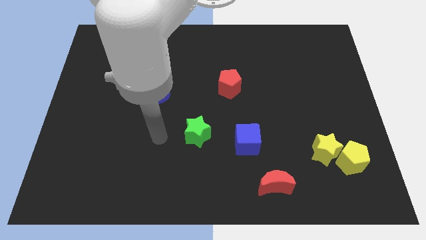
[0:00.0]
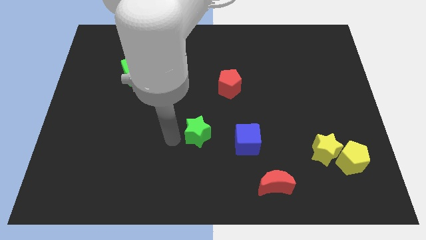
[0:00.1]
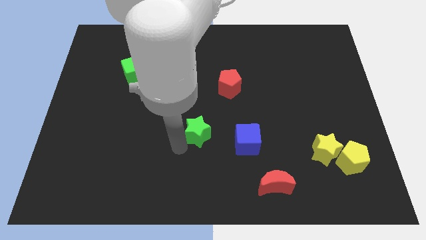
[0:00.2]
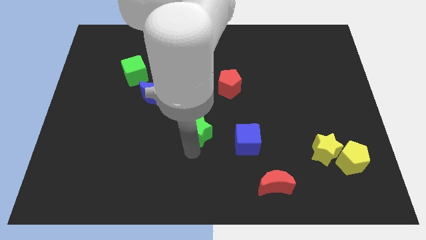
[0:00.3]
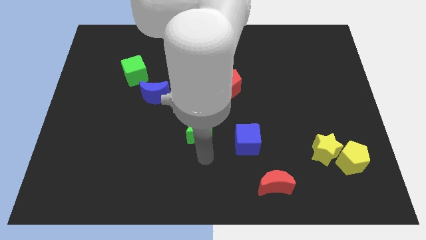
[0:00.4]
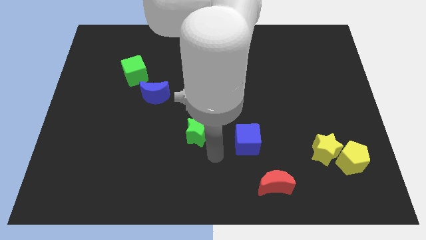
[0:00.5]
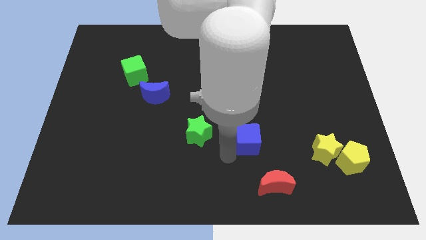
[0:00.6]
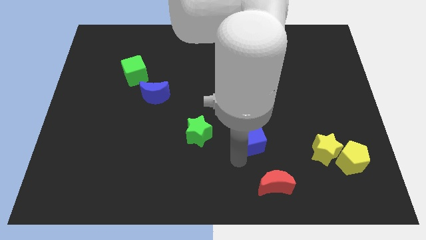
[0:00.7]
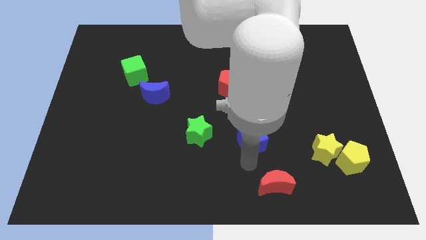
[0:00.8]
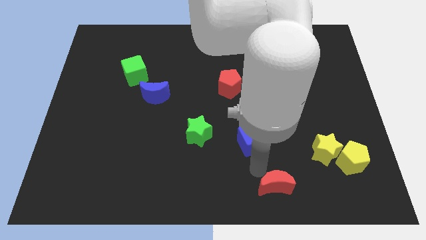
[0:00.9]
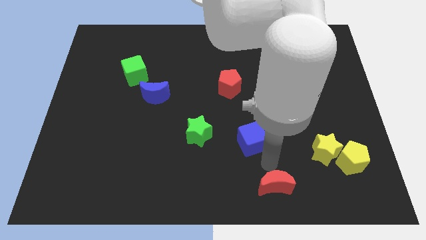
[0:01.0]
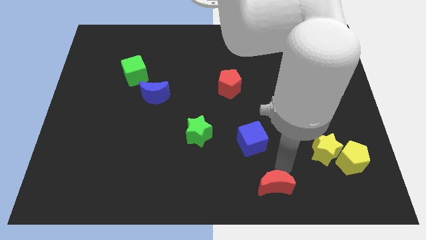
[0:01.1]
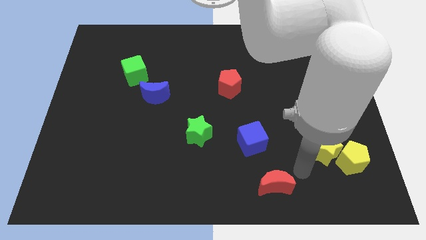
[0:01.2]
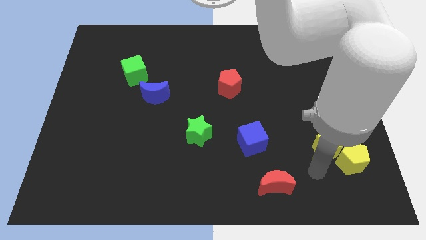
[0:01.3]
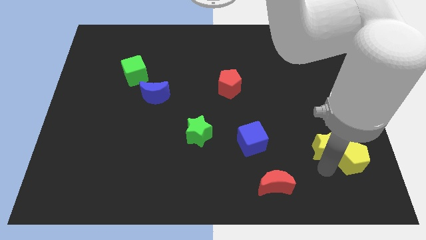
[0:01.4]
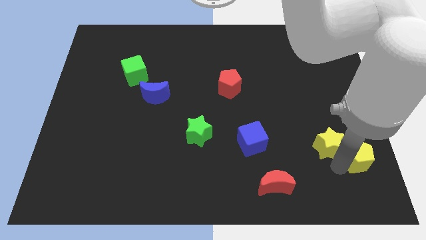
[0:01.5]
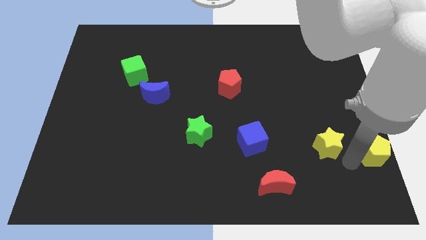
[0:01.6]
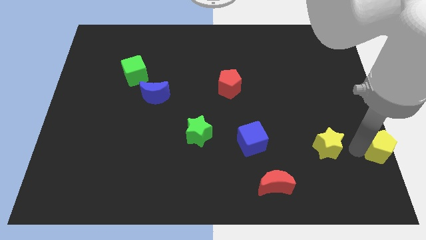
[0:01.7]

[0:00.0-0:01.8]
separate the yellow star from the yellow pentagon

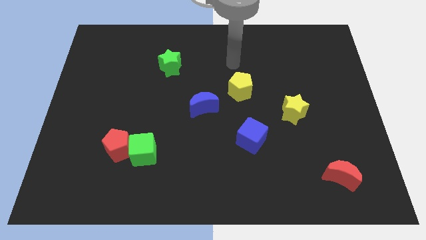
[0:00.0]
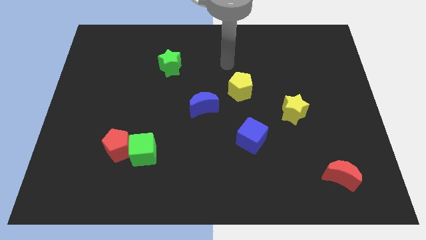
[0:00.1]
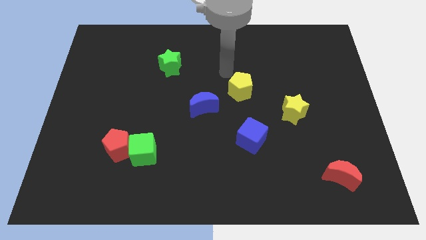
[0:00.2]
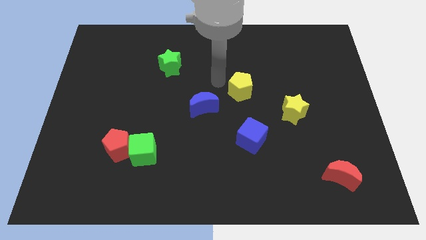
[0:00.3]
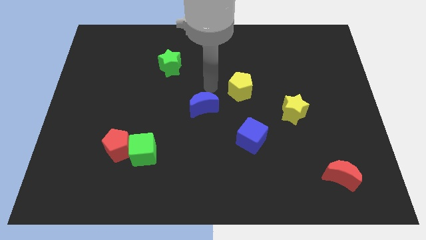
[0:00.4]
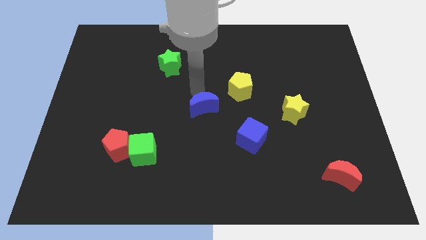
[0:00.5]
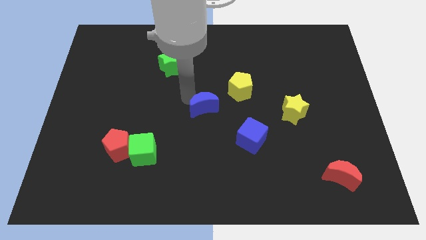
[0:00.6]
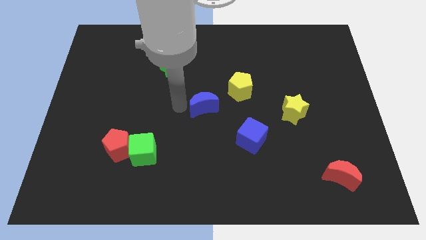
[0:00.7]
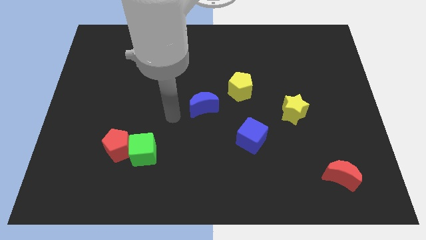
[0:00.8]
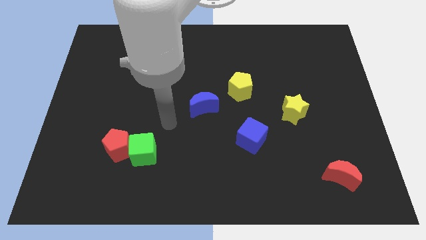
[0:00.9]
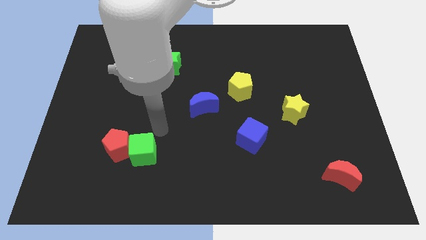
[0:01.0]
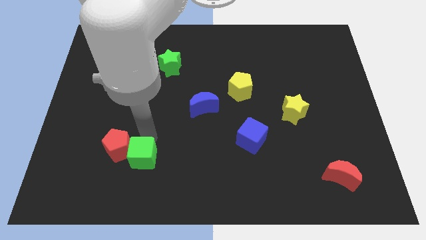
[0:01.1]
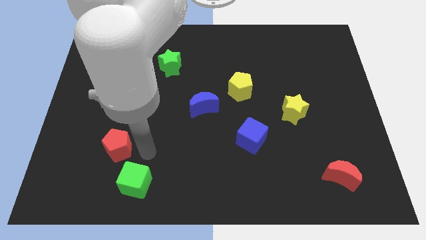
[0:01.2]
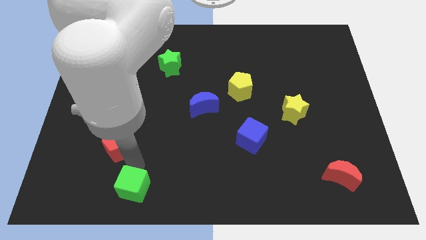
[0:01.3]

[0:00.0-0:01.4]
pull the red pentagon apart from the green cube

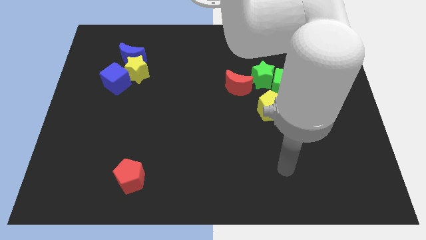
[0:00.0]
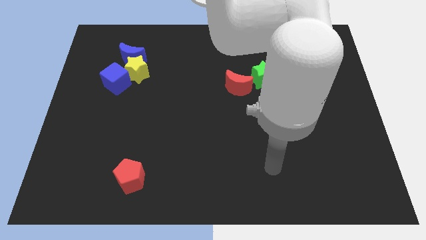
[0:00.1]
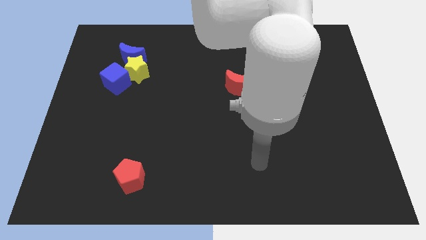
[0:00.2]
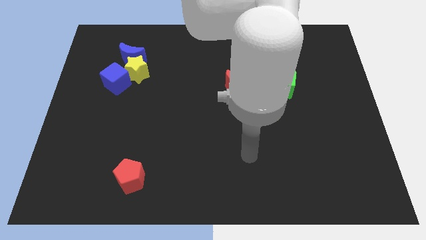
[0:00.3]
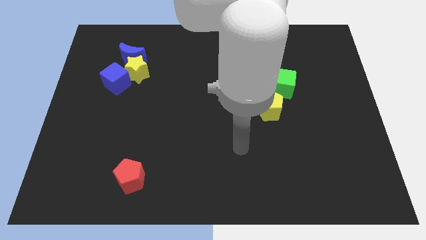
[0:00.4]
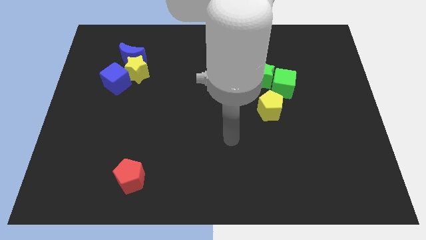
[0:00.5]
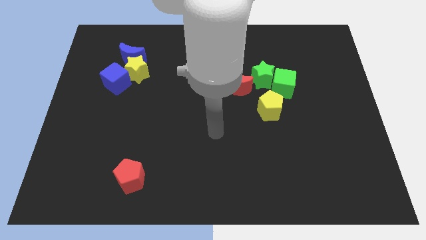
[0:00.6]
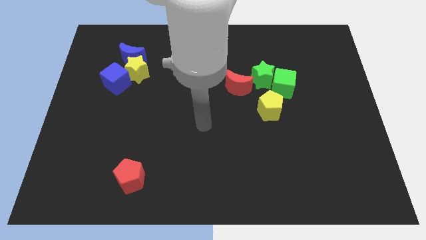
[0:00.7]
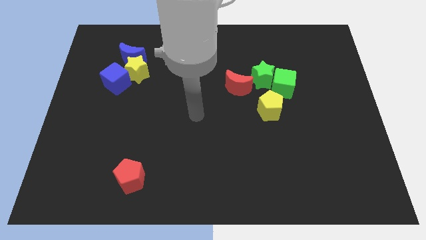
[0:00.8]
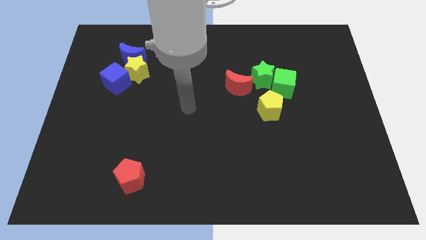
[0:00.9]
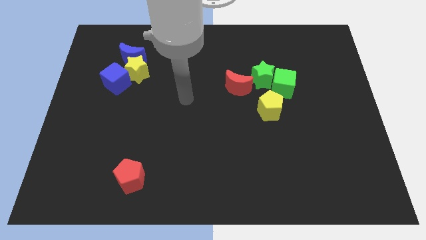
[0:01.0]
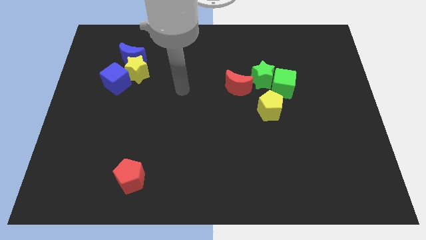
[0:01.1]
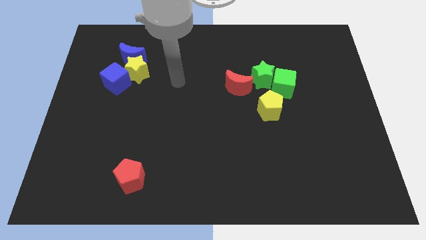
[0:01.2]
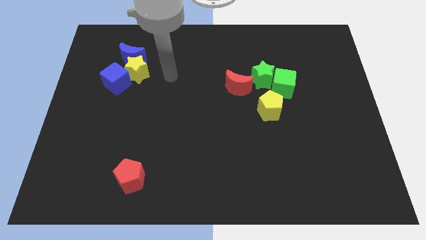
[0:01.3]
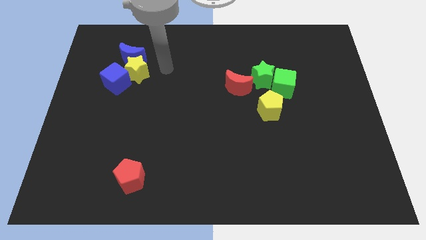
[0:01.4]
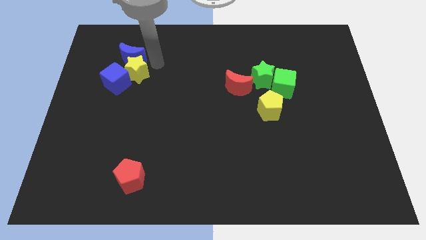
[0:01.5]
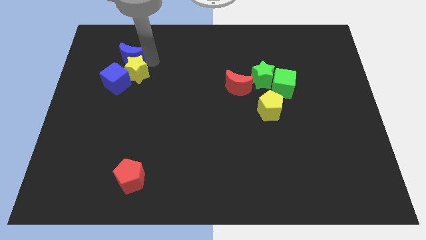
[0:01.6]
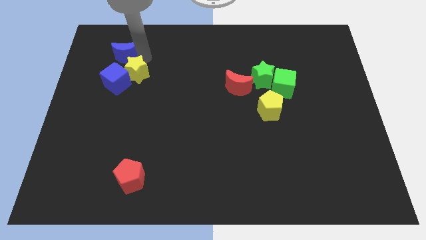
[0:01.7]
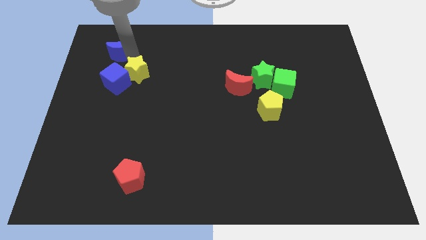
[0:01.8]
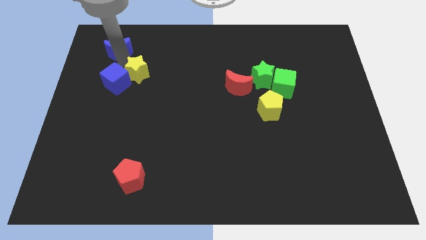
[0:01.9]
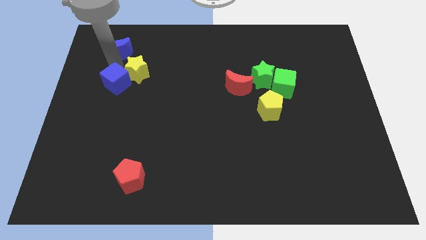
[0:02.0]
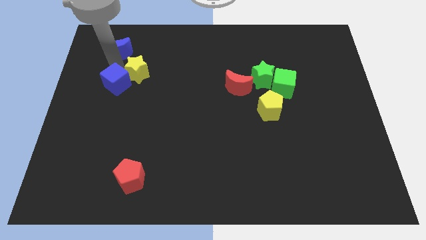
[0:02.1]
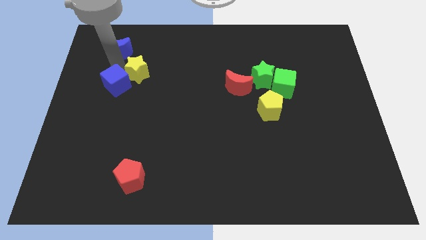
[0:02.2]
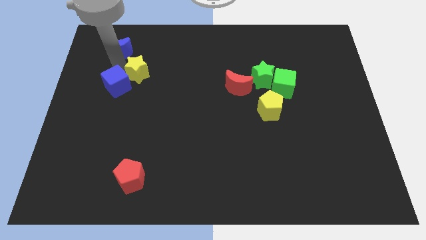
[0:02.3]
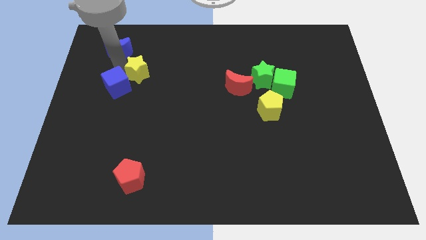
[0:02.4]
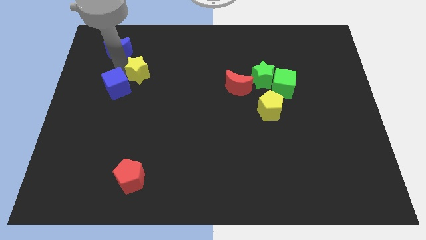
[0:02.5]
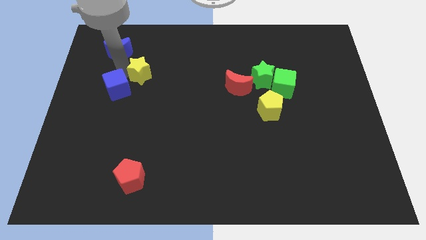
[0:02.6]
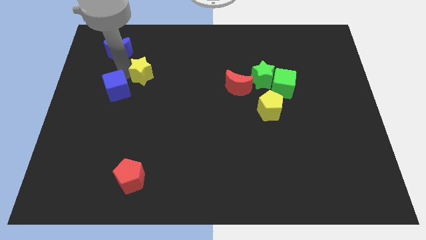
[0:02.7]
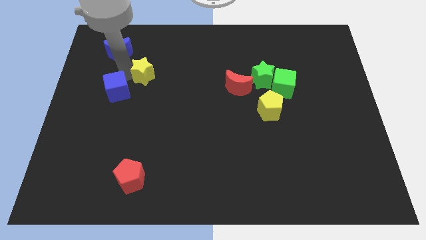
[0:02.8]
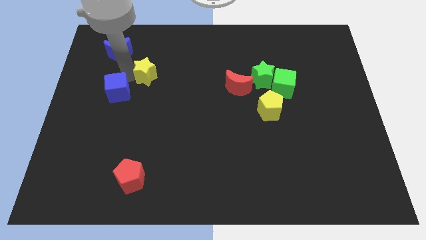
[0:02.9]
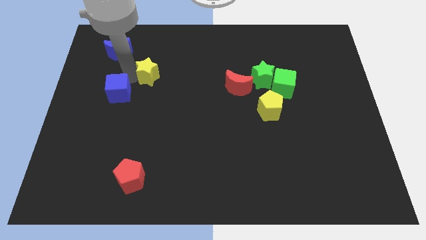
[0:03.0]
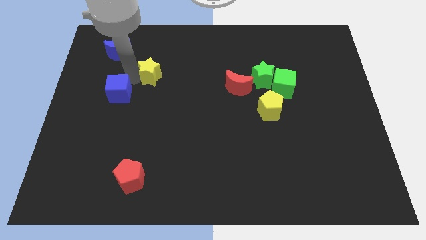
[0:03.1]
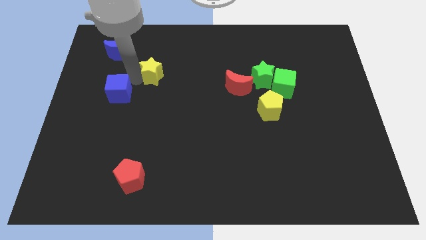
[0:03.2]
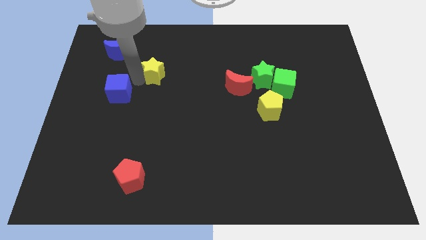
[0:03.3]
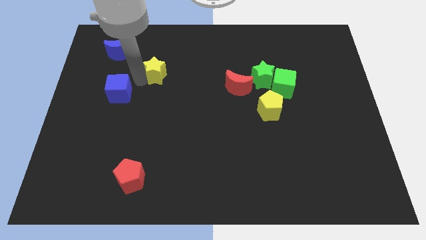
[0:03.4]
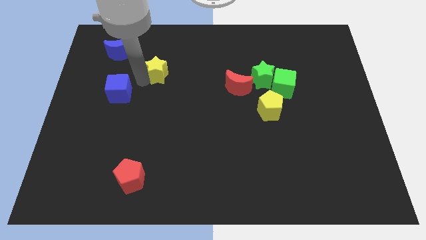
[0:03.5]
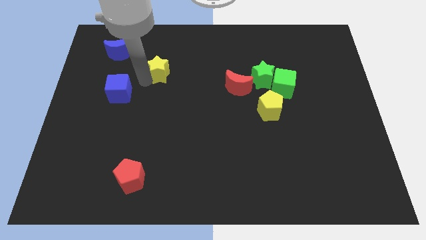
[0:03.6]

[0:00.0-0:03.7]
pull the yellow star apart from the blue moon and blue cube

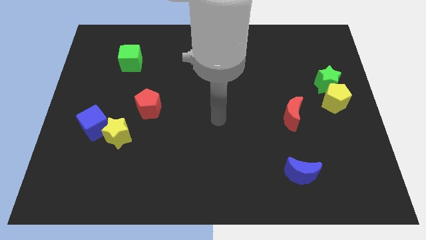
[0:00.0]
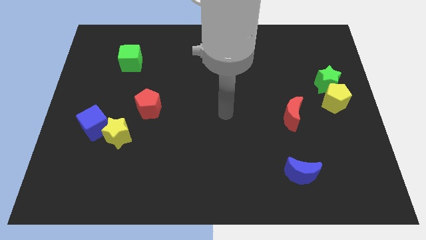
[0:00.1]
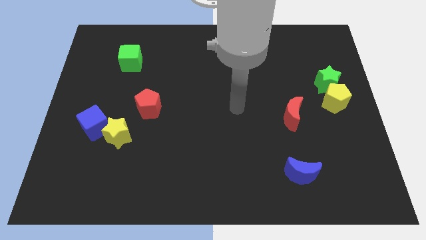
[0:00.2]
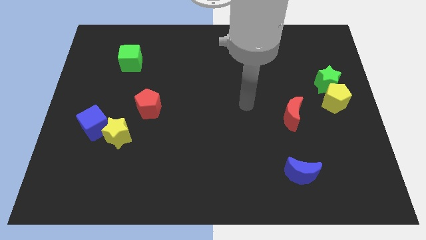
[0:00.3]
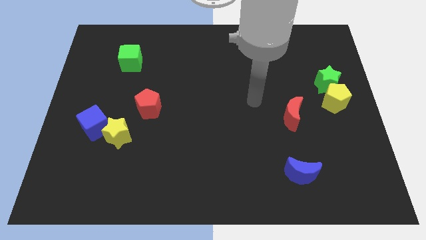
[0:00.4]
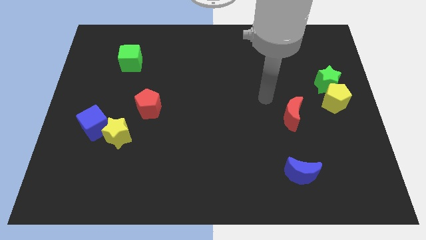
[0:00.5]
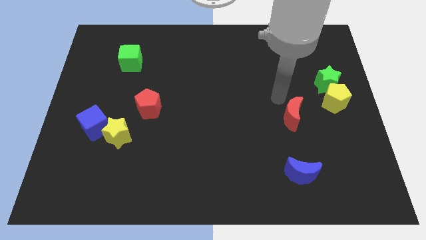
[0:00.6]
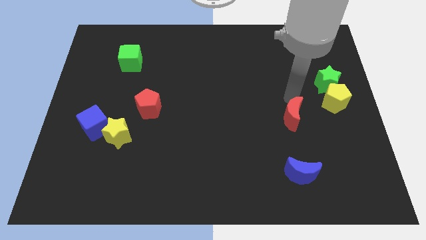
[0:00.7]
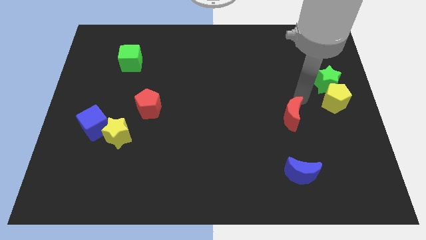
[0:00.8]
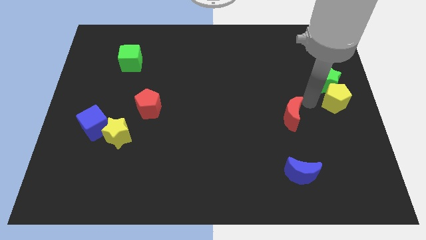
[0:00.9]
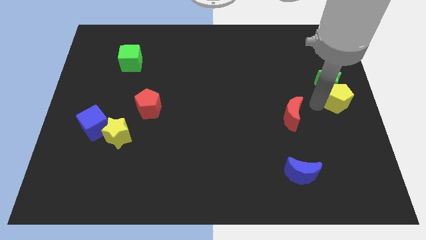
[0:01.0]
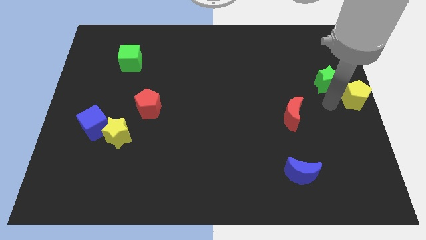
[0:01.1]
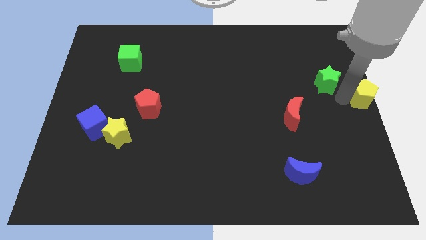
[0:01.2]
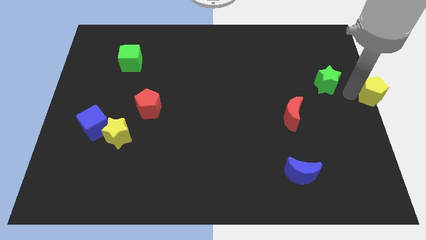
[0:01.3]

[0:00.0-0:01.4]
separate the green star from the yellow pentagon

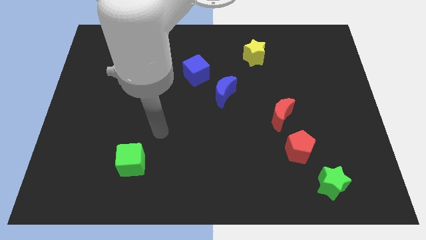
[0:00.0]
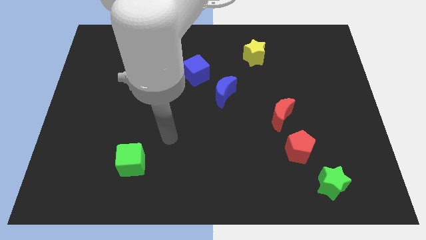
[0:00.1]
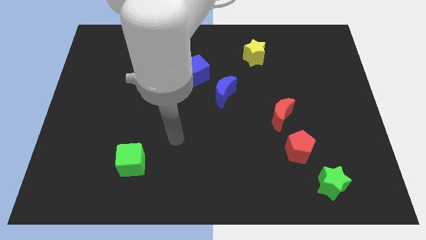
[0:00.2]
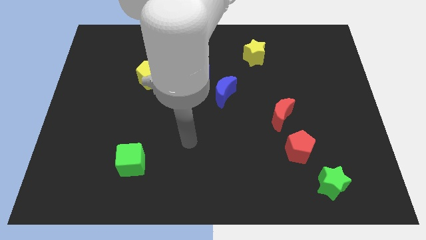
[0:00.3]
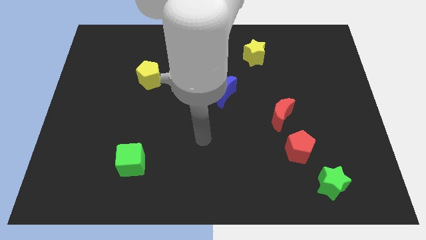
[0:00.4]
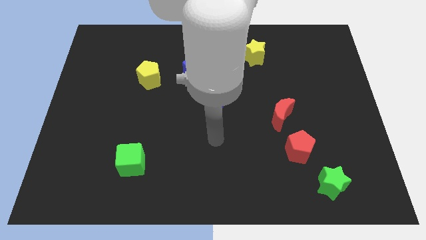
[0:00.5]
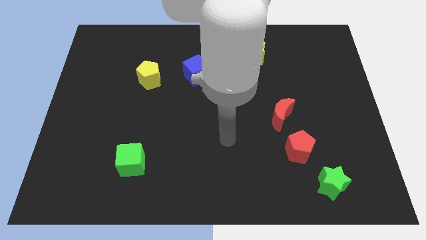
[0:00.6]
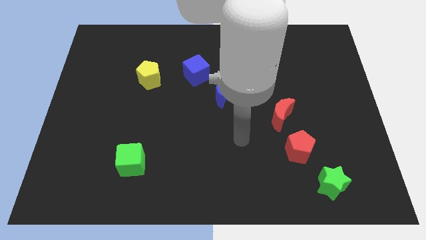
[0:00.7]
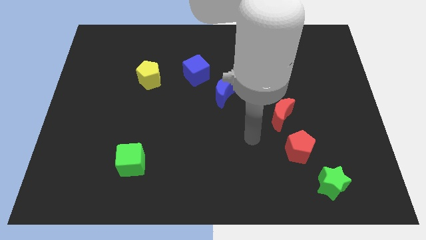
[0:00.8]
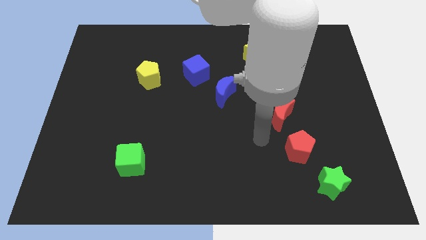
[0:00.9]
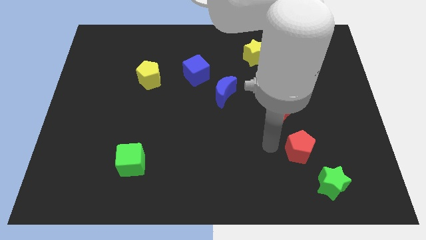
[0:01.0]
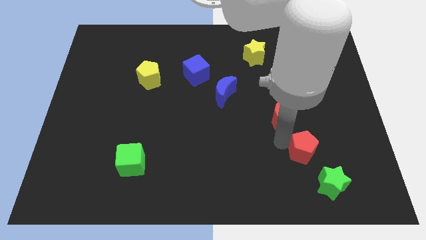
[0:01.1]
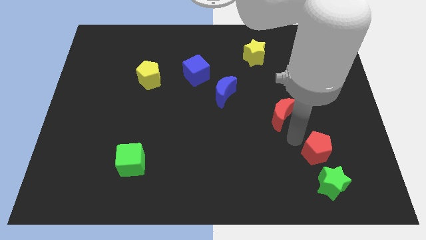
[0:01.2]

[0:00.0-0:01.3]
pull the red moon apart from the red pentagon
